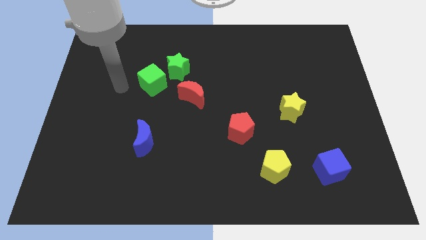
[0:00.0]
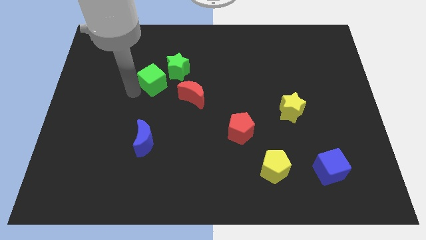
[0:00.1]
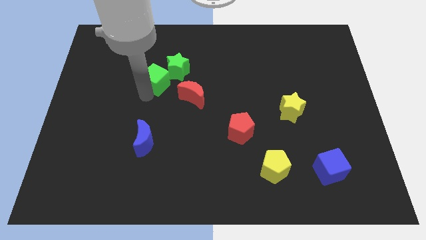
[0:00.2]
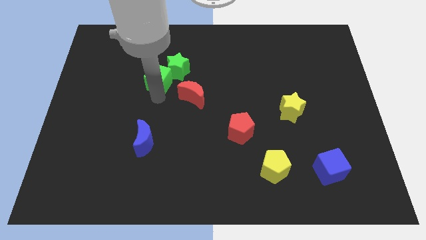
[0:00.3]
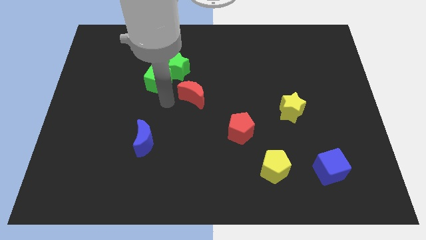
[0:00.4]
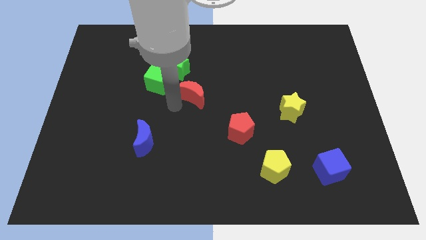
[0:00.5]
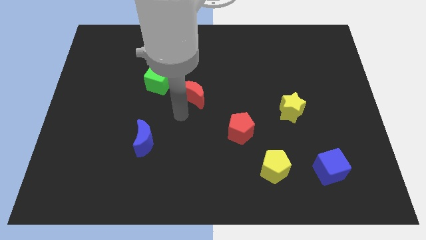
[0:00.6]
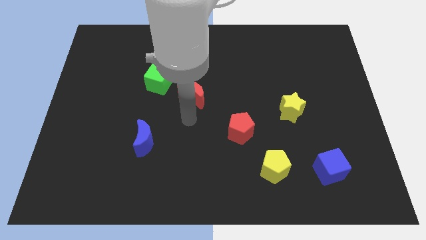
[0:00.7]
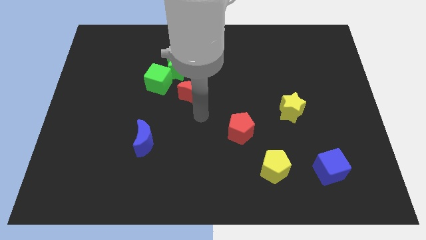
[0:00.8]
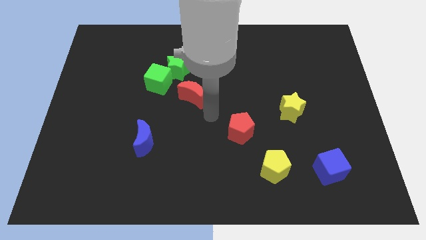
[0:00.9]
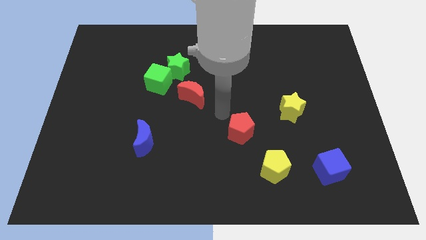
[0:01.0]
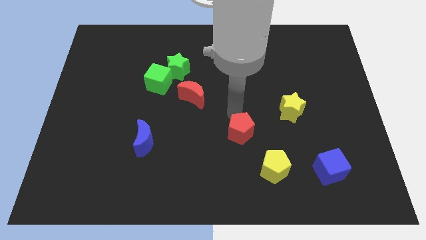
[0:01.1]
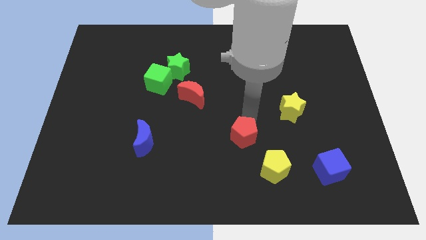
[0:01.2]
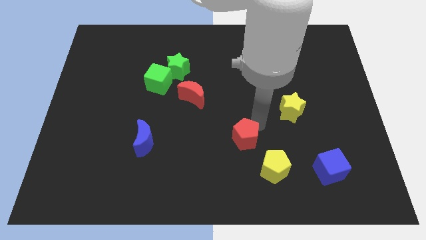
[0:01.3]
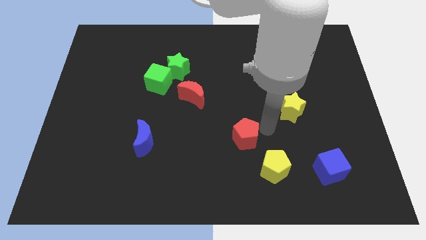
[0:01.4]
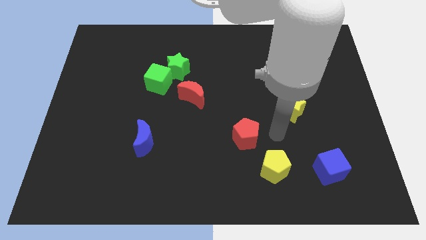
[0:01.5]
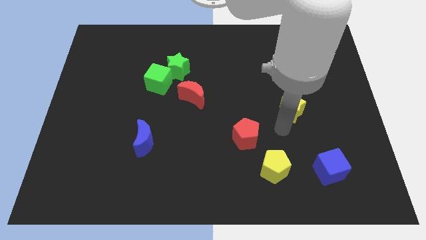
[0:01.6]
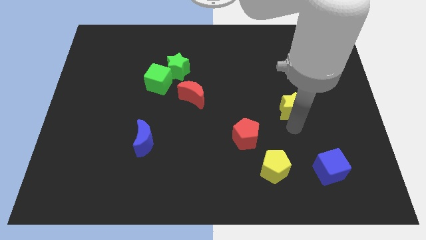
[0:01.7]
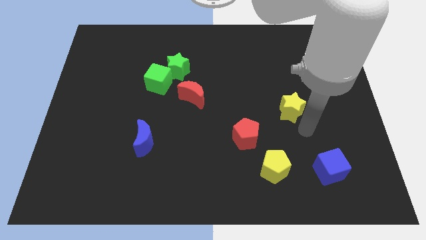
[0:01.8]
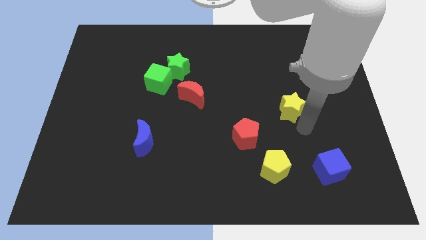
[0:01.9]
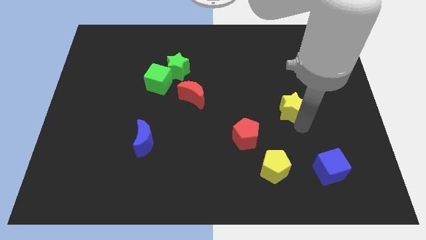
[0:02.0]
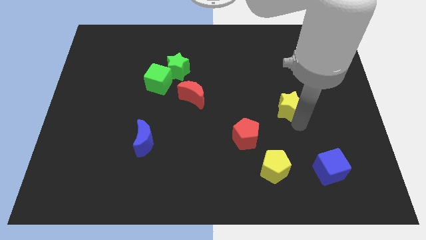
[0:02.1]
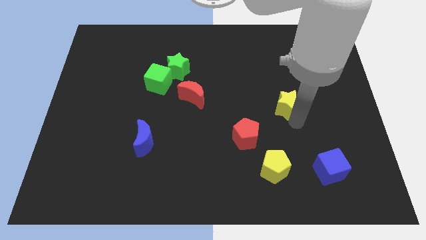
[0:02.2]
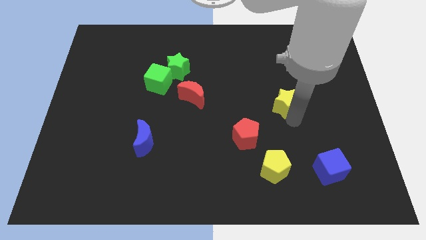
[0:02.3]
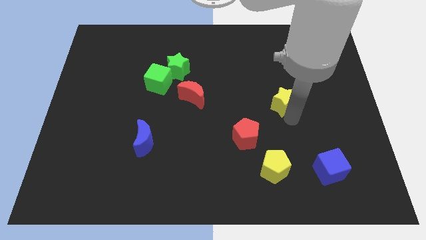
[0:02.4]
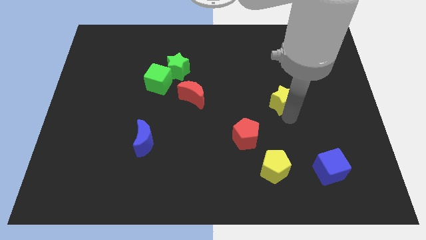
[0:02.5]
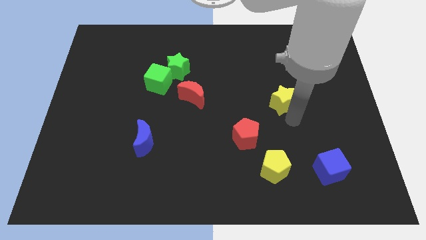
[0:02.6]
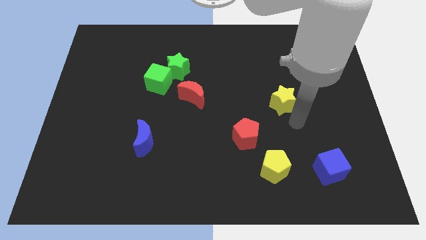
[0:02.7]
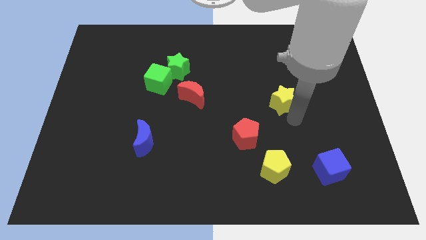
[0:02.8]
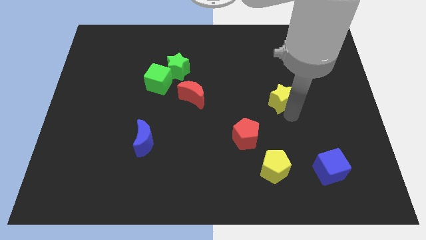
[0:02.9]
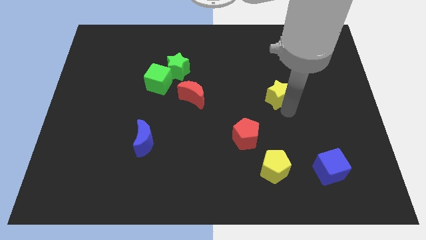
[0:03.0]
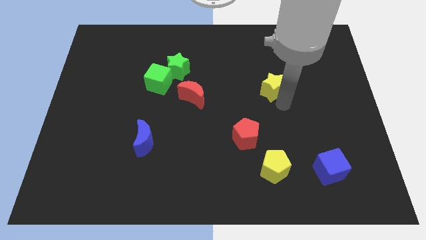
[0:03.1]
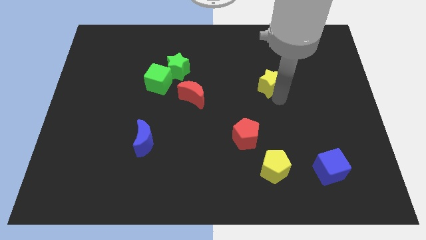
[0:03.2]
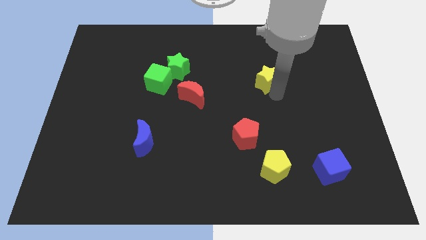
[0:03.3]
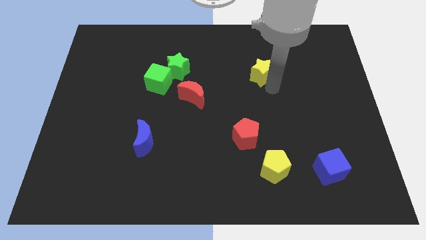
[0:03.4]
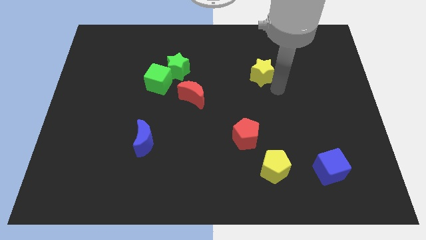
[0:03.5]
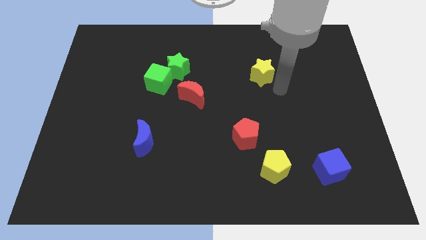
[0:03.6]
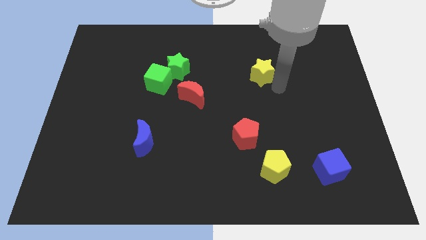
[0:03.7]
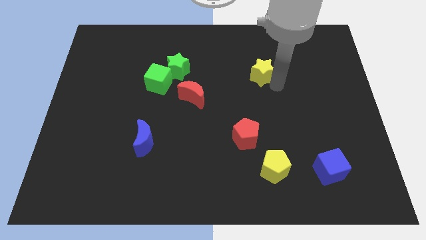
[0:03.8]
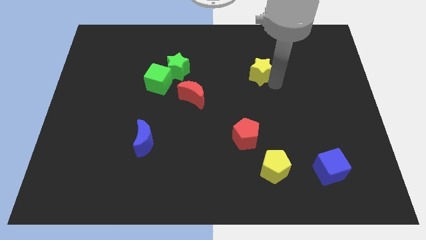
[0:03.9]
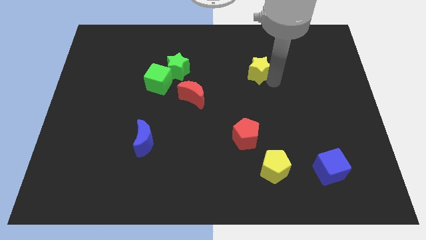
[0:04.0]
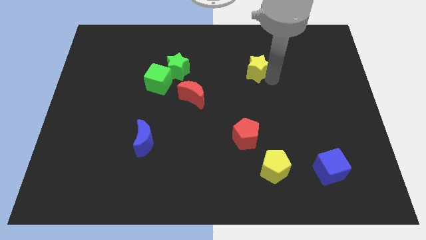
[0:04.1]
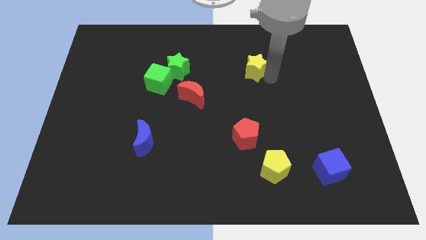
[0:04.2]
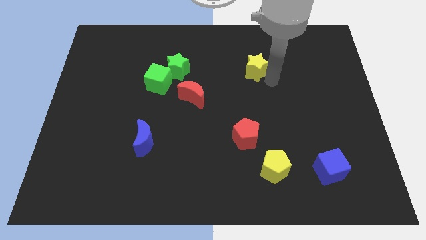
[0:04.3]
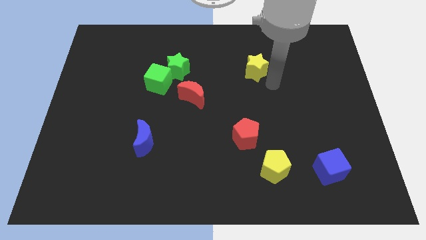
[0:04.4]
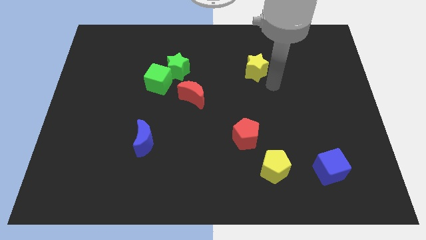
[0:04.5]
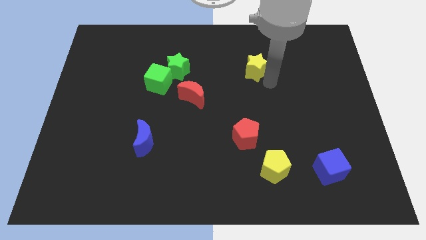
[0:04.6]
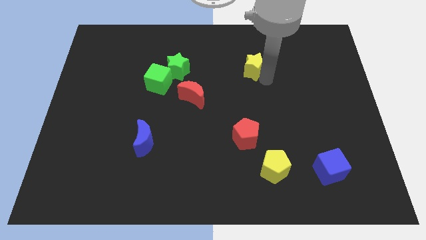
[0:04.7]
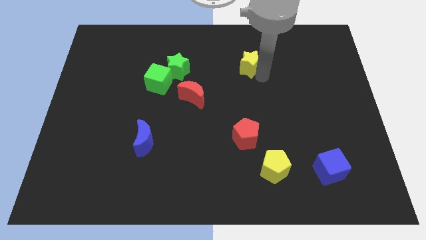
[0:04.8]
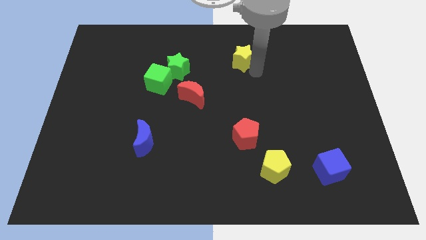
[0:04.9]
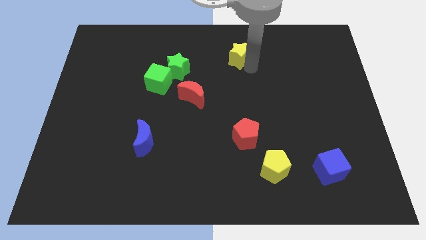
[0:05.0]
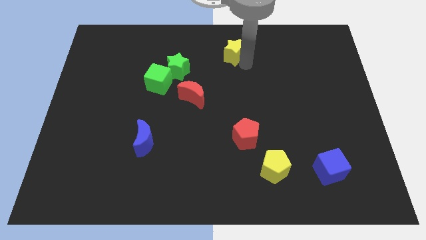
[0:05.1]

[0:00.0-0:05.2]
put the yellow star to the top
